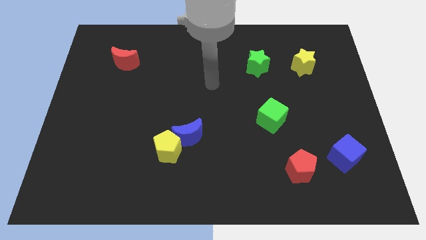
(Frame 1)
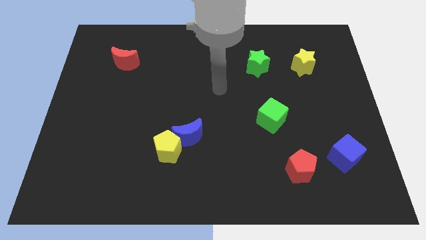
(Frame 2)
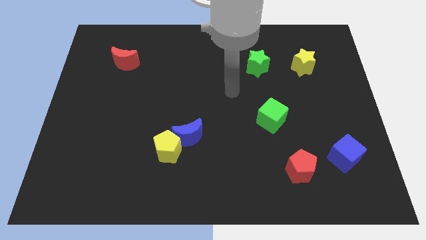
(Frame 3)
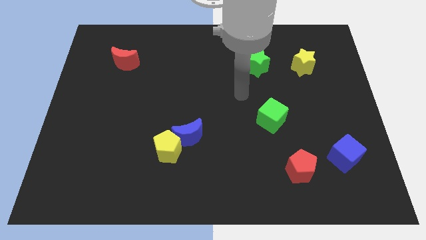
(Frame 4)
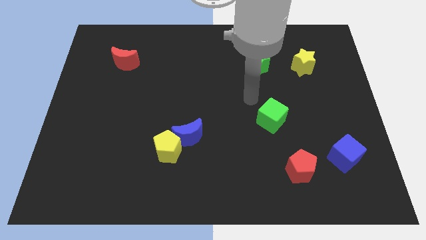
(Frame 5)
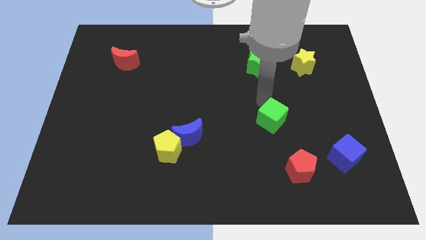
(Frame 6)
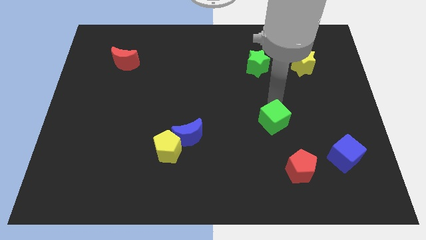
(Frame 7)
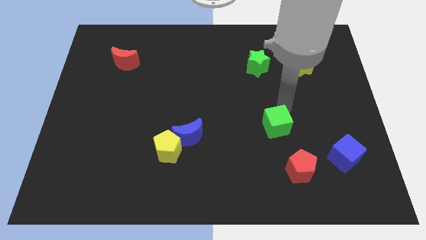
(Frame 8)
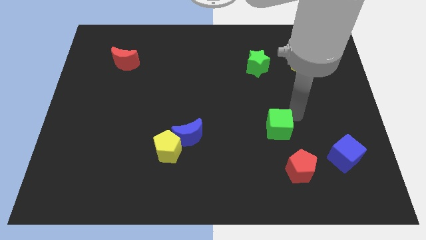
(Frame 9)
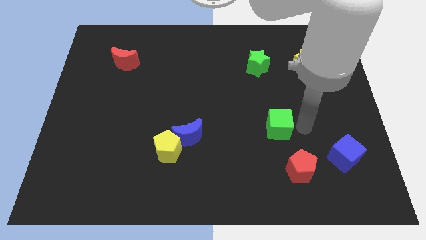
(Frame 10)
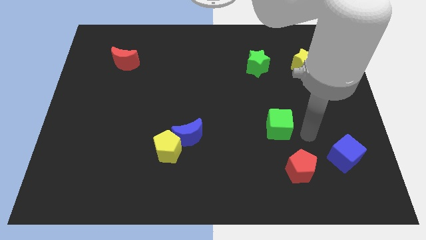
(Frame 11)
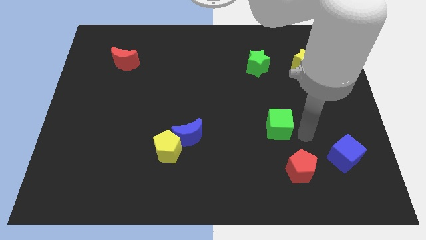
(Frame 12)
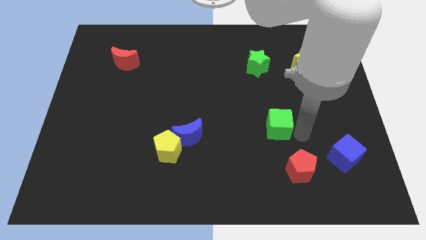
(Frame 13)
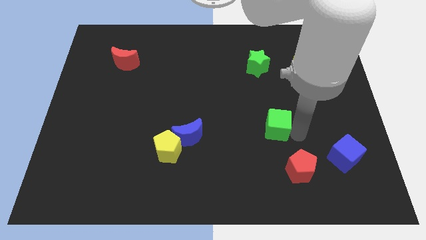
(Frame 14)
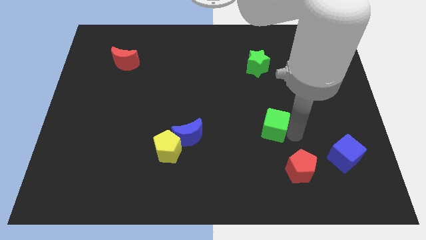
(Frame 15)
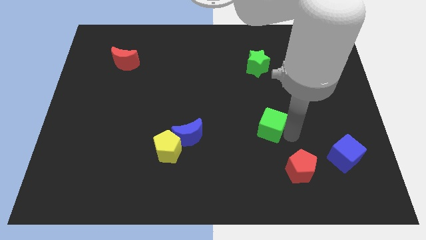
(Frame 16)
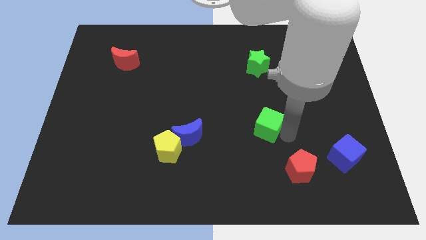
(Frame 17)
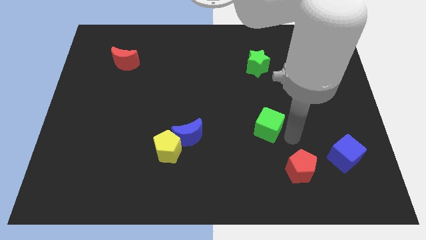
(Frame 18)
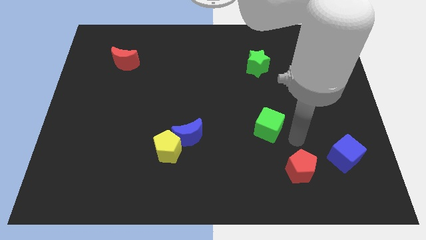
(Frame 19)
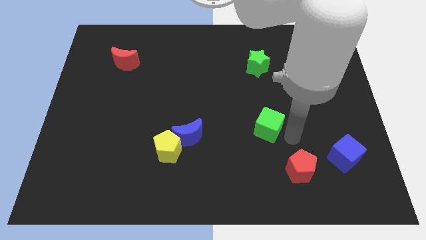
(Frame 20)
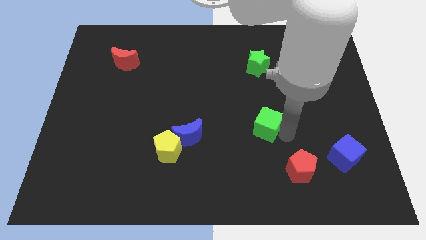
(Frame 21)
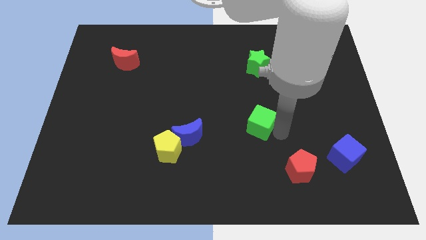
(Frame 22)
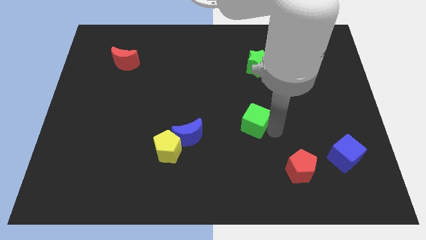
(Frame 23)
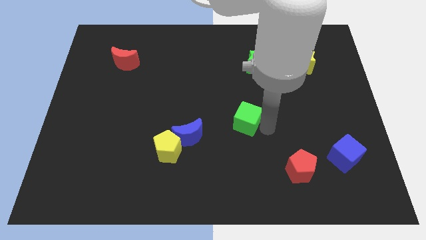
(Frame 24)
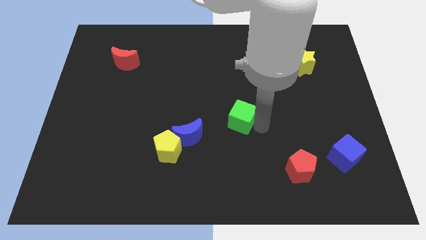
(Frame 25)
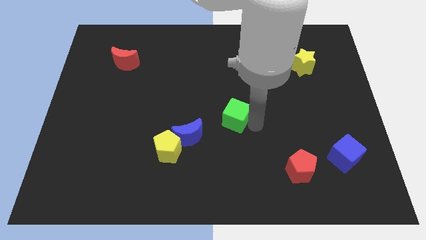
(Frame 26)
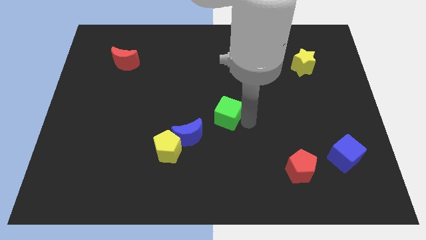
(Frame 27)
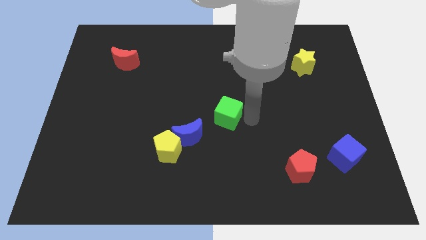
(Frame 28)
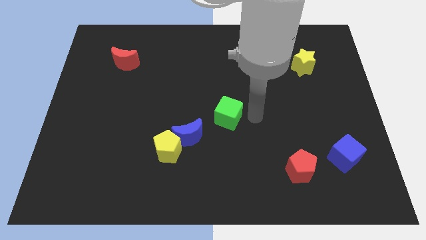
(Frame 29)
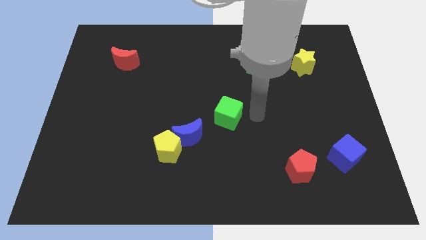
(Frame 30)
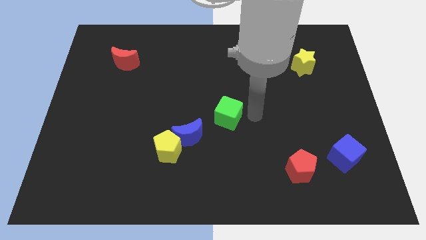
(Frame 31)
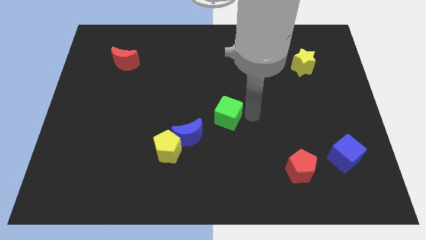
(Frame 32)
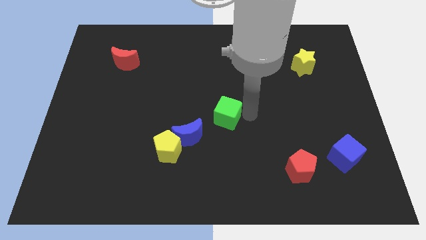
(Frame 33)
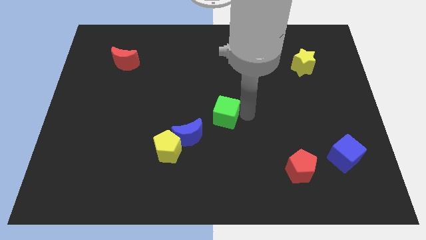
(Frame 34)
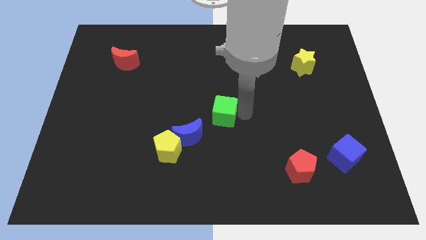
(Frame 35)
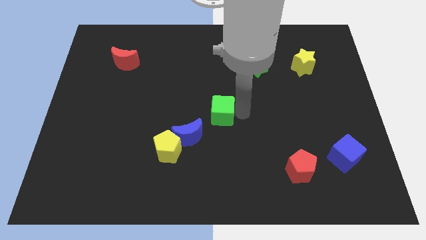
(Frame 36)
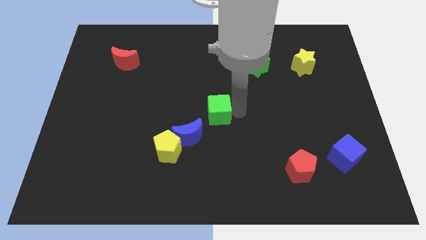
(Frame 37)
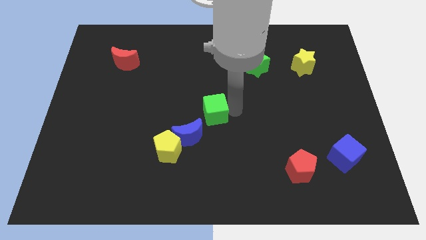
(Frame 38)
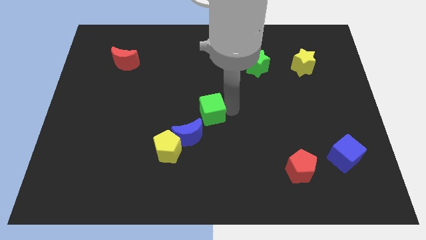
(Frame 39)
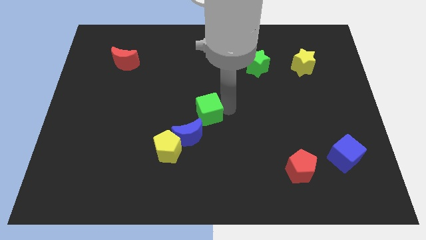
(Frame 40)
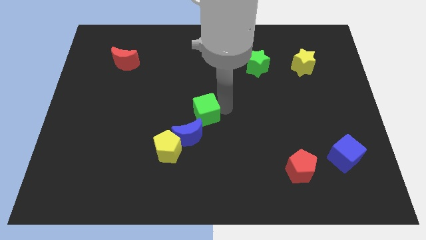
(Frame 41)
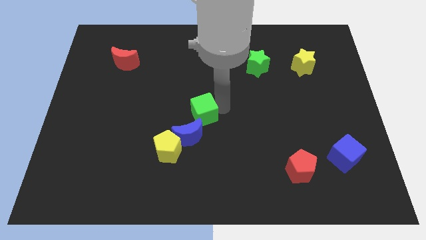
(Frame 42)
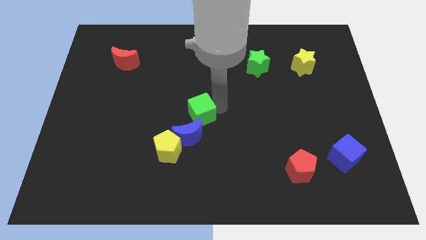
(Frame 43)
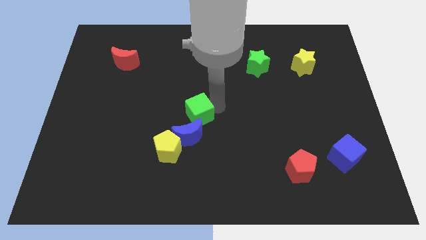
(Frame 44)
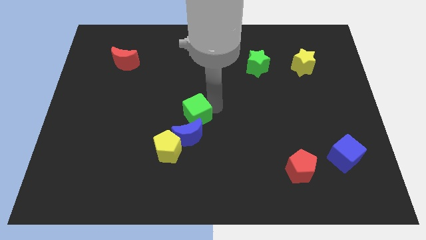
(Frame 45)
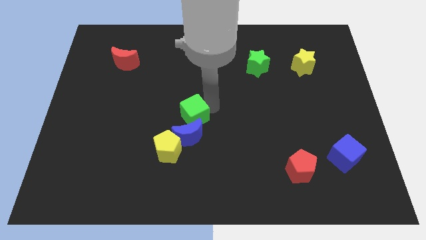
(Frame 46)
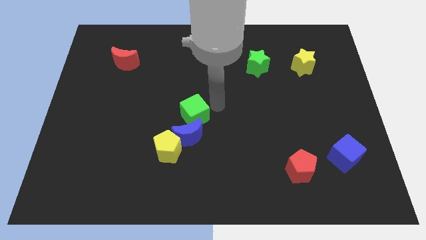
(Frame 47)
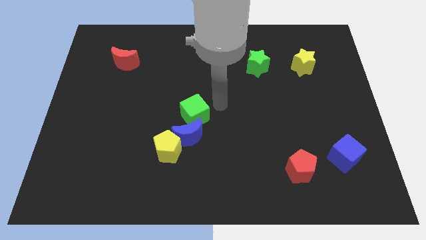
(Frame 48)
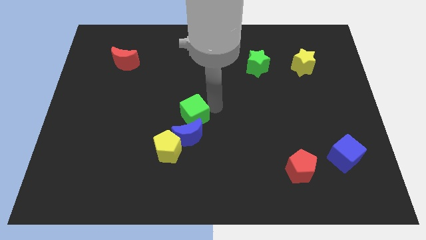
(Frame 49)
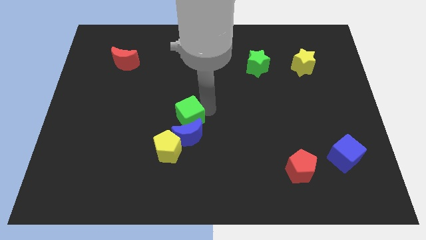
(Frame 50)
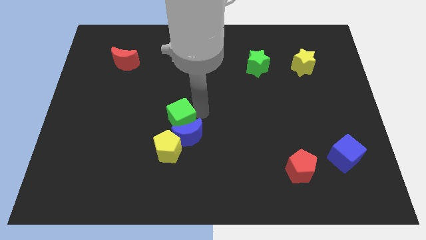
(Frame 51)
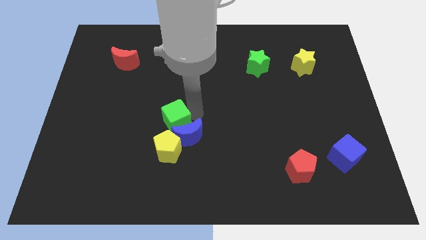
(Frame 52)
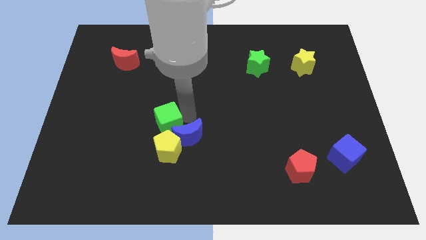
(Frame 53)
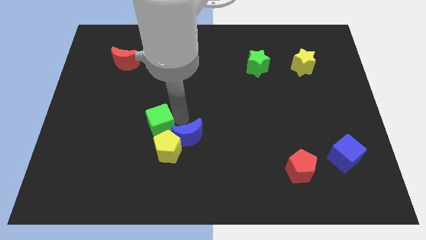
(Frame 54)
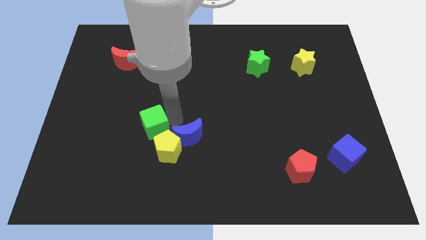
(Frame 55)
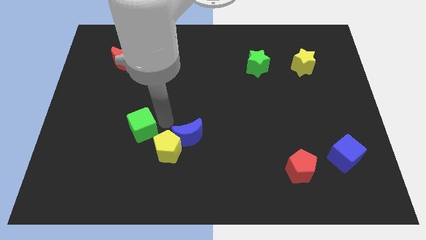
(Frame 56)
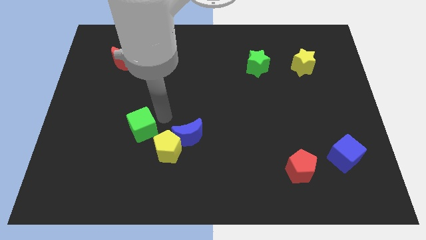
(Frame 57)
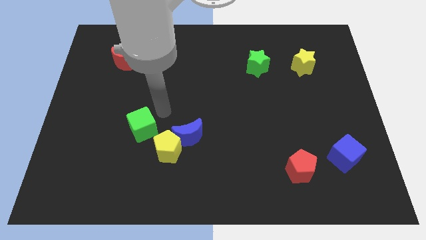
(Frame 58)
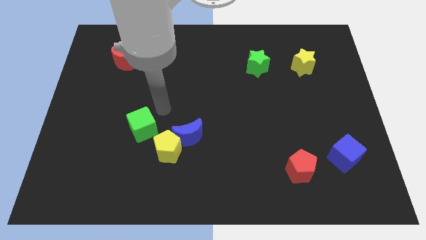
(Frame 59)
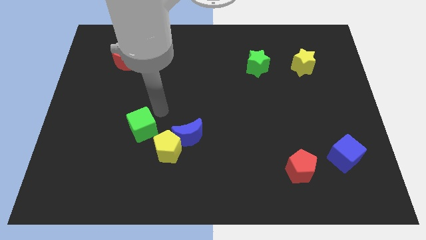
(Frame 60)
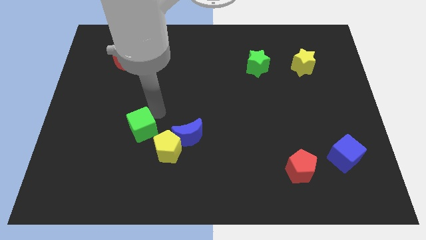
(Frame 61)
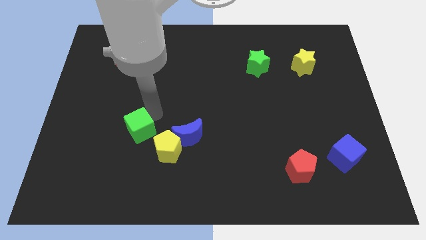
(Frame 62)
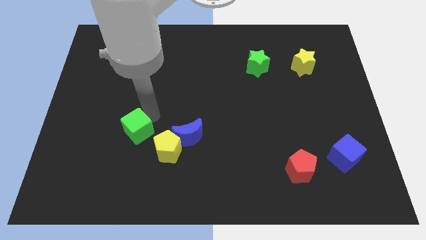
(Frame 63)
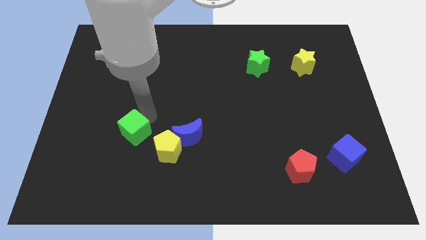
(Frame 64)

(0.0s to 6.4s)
slide the green cube to the left of the yellow pentagon

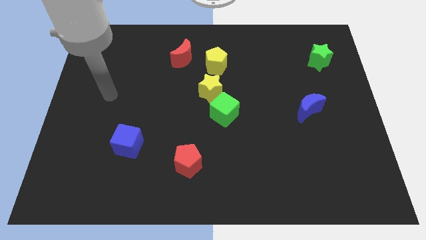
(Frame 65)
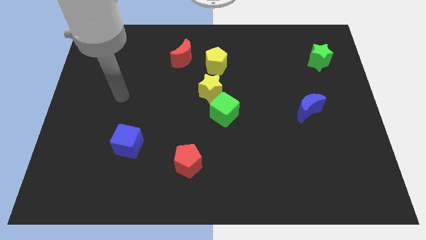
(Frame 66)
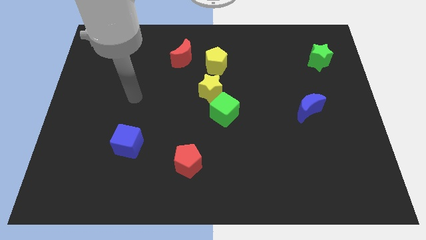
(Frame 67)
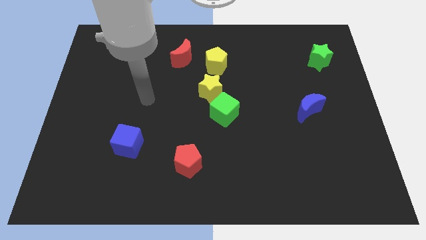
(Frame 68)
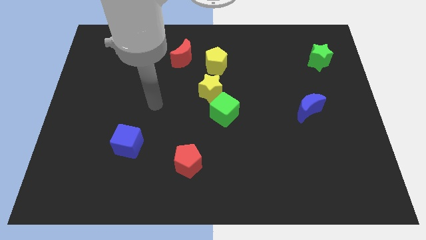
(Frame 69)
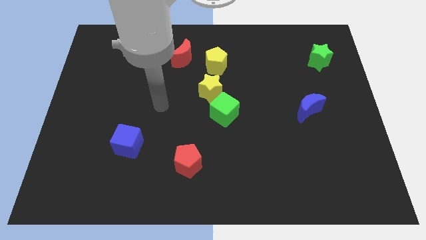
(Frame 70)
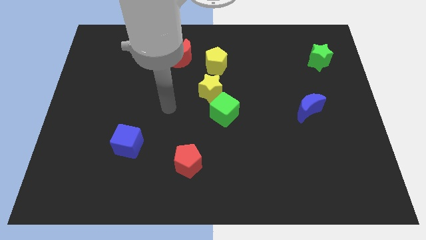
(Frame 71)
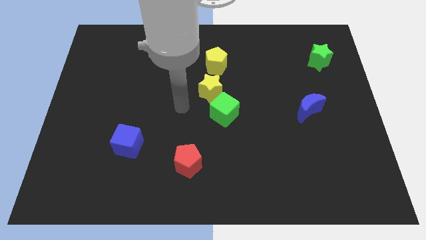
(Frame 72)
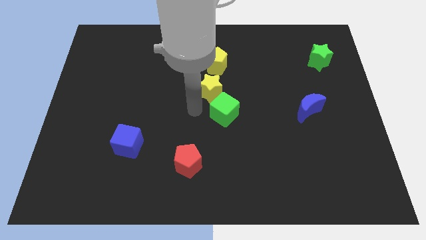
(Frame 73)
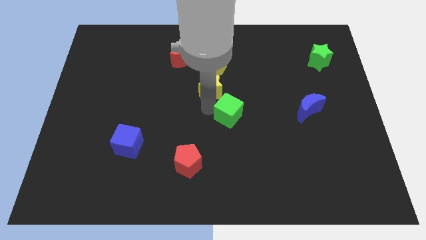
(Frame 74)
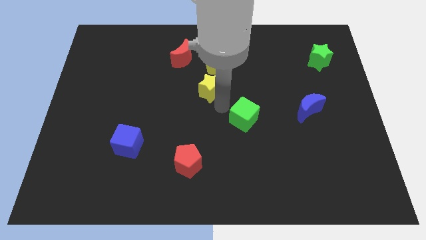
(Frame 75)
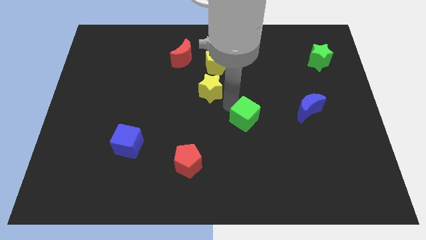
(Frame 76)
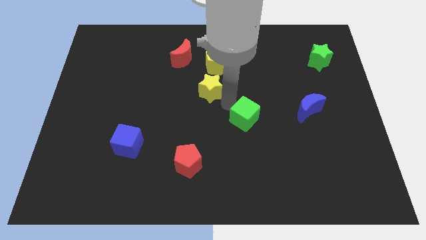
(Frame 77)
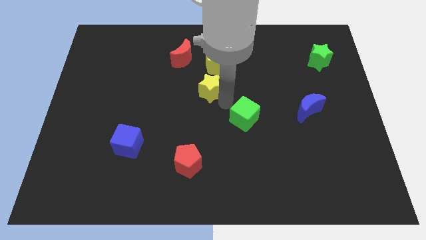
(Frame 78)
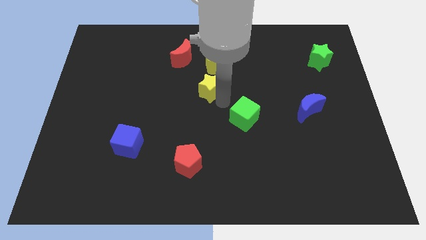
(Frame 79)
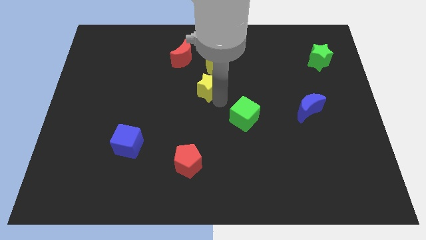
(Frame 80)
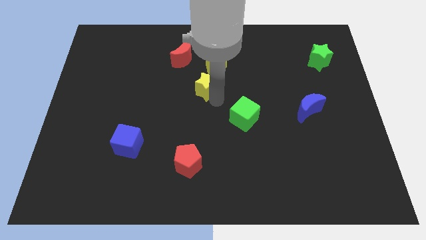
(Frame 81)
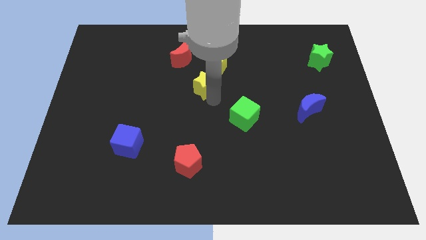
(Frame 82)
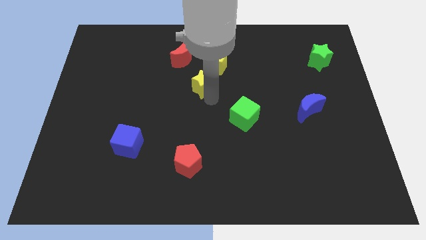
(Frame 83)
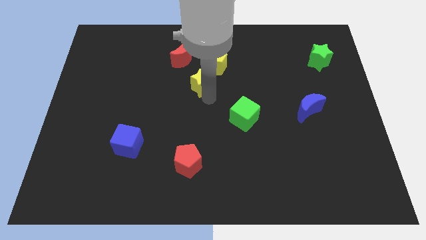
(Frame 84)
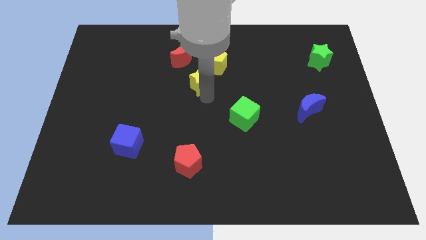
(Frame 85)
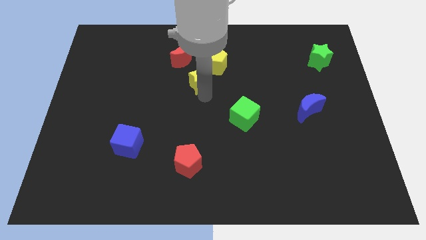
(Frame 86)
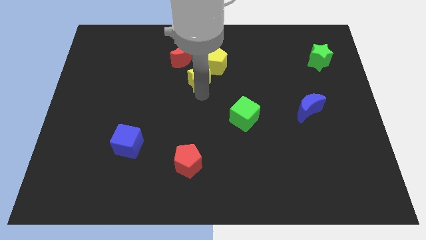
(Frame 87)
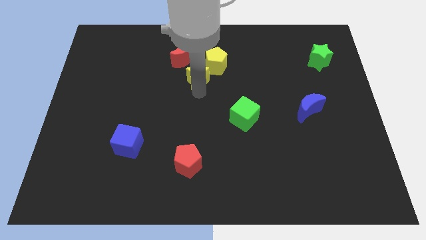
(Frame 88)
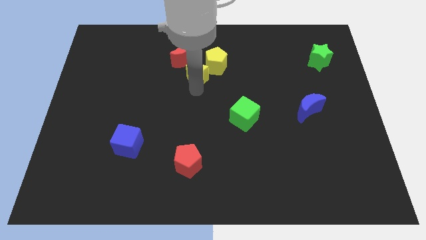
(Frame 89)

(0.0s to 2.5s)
move the yellow star left of the yellow pentagon
